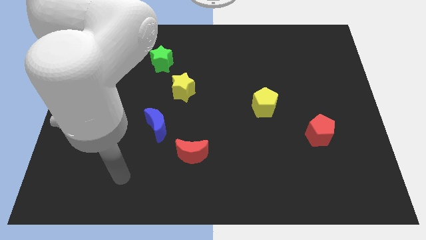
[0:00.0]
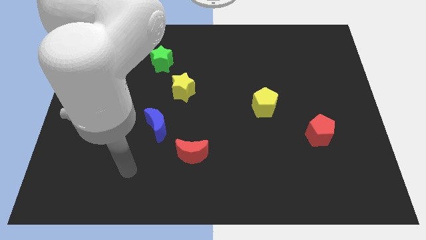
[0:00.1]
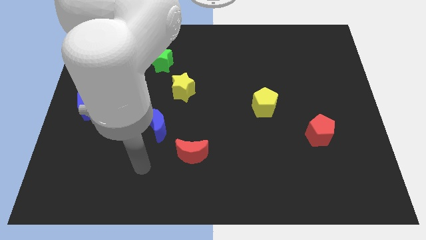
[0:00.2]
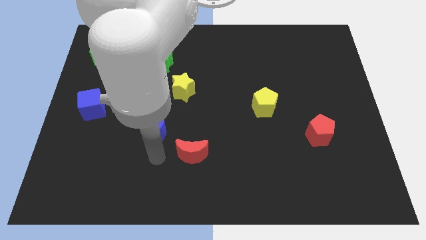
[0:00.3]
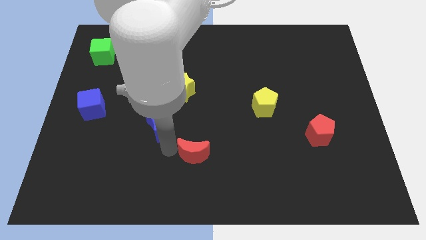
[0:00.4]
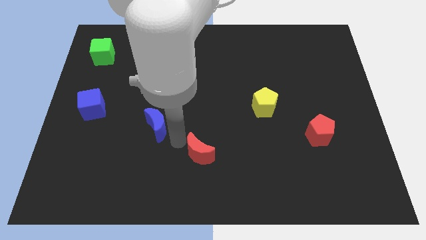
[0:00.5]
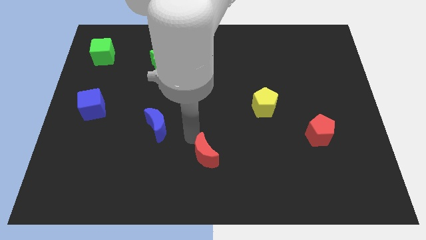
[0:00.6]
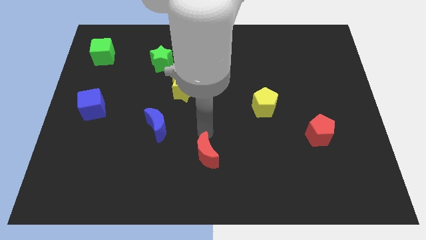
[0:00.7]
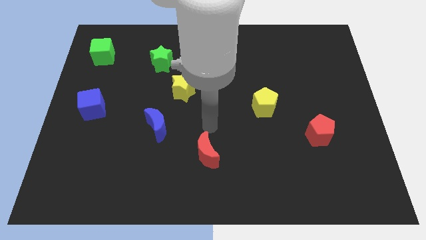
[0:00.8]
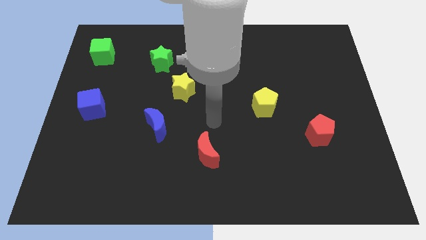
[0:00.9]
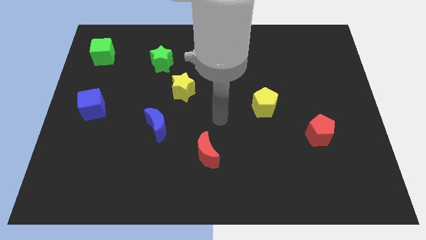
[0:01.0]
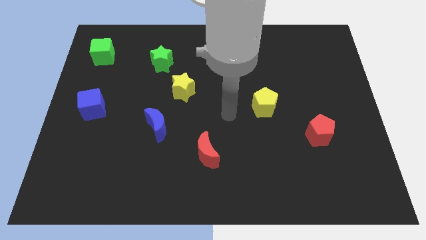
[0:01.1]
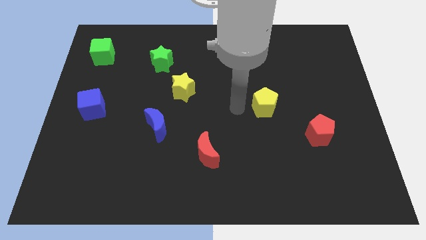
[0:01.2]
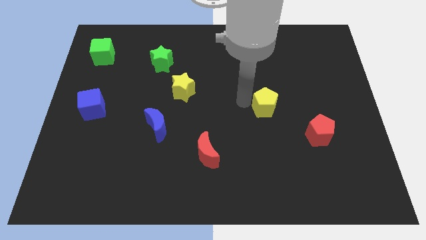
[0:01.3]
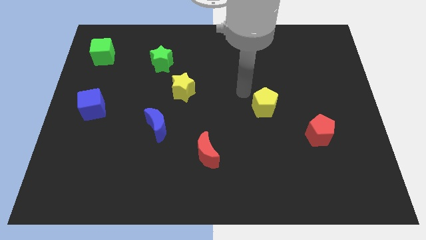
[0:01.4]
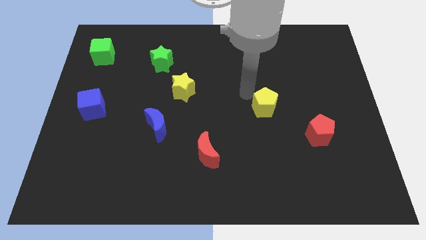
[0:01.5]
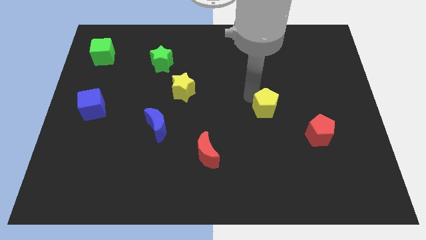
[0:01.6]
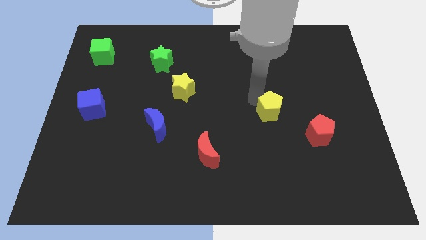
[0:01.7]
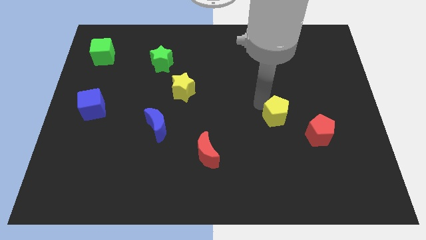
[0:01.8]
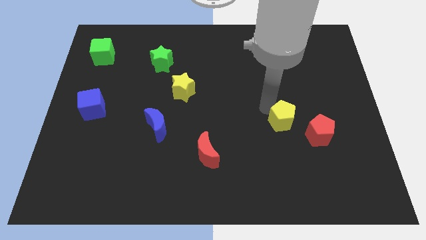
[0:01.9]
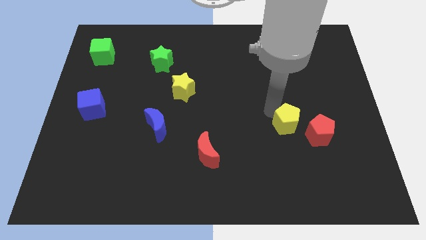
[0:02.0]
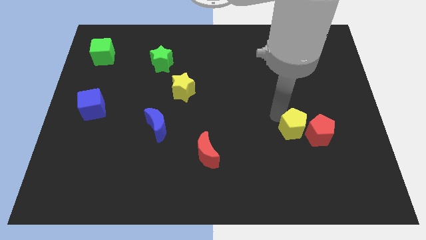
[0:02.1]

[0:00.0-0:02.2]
push the yellow pentagon downwards and to the right slightly

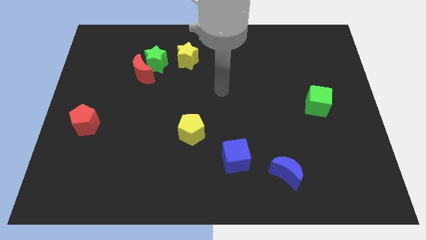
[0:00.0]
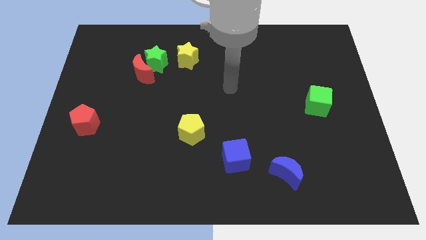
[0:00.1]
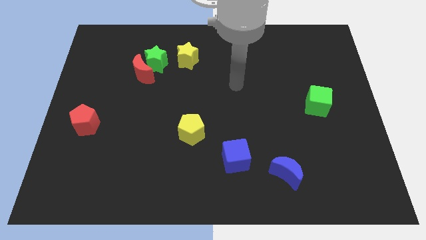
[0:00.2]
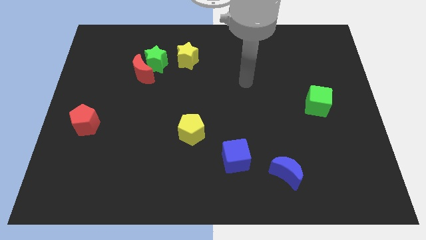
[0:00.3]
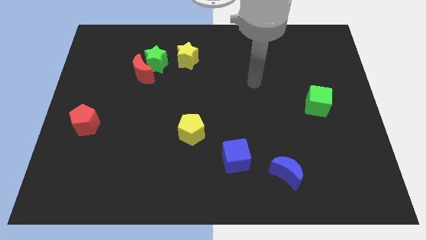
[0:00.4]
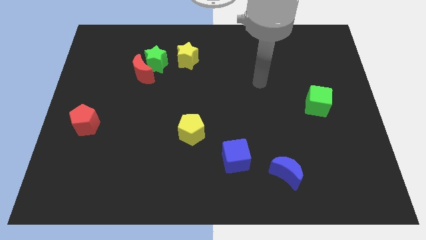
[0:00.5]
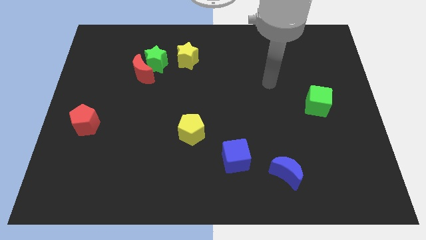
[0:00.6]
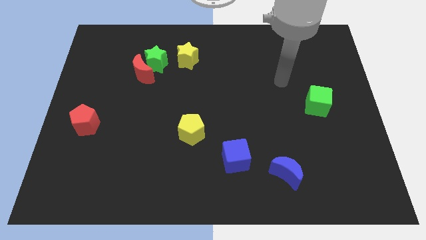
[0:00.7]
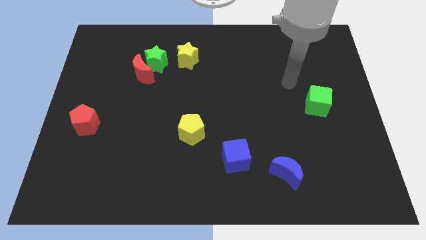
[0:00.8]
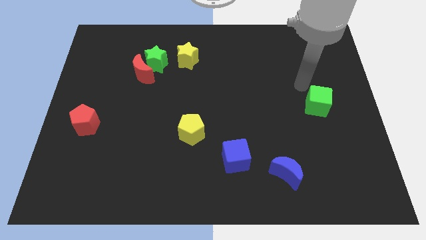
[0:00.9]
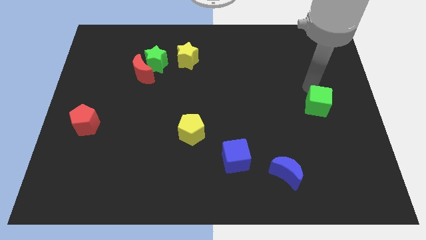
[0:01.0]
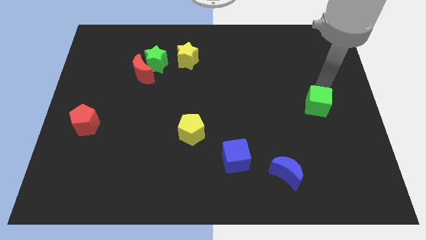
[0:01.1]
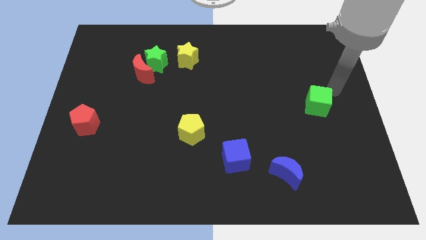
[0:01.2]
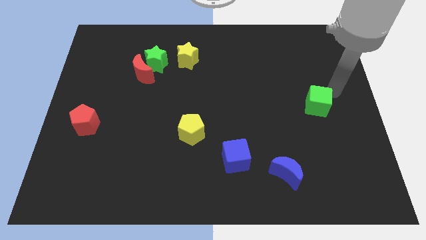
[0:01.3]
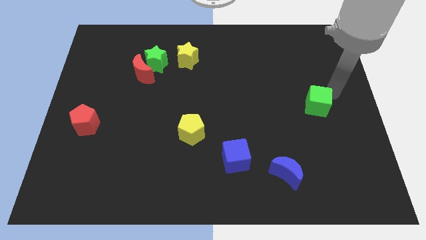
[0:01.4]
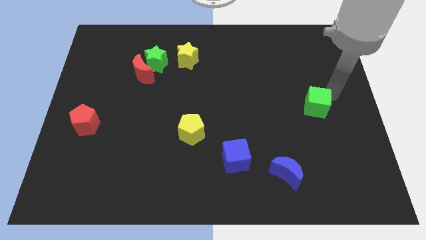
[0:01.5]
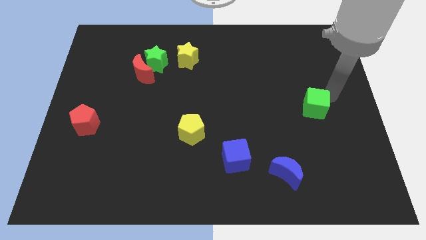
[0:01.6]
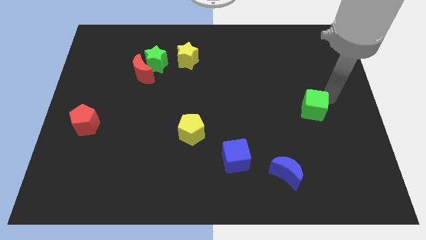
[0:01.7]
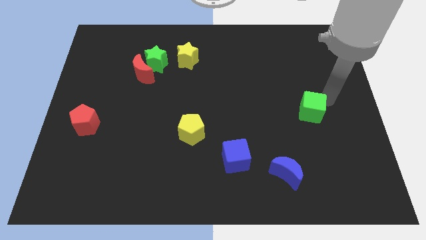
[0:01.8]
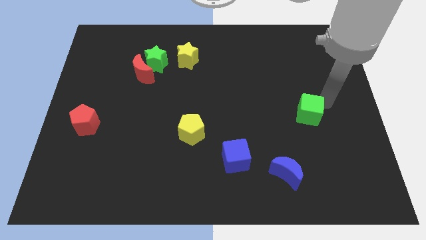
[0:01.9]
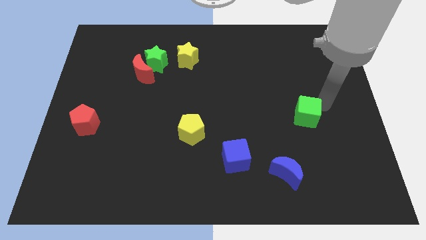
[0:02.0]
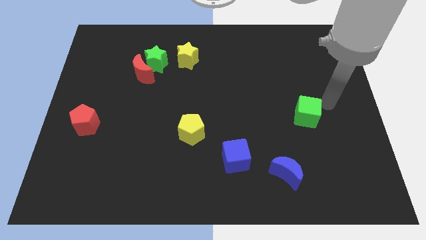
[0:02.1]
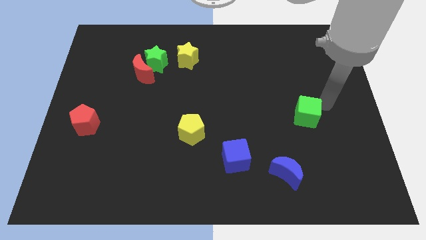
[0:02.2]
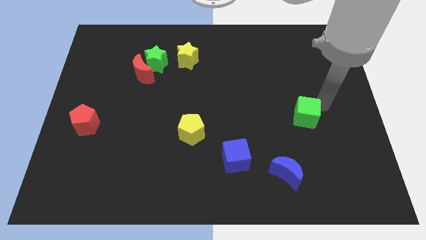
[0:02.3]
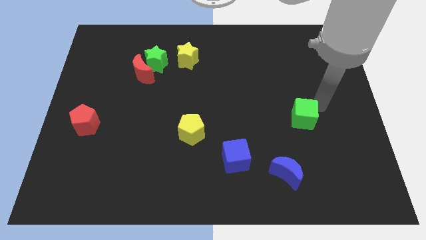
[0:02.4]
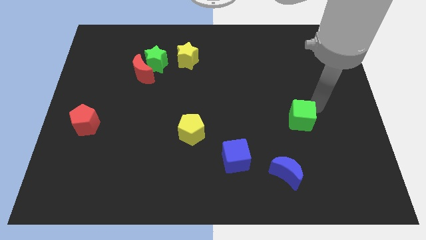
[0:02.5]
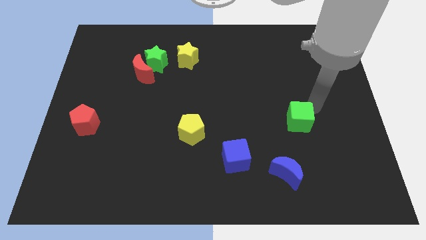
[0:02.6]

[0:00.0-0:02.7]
push the green cube downwards and then left somewhat

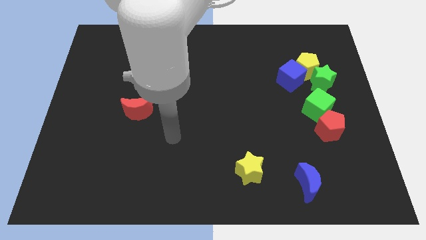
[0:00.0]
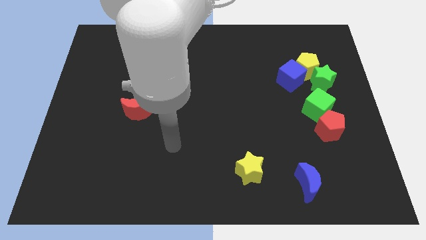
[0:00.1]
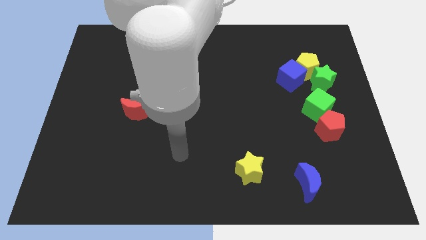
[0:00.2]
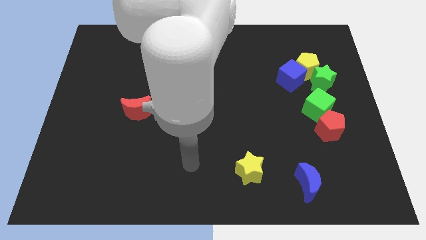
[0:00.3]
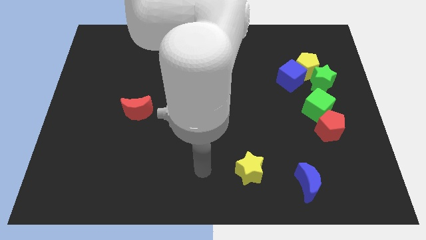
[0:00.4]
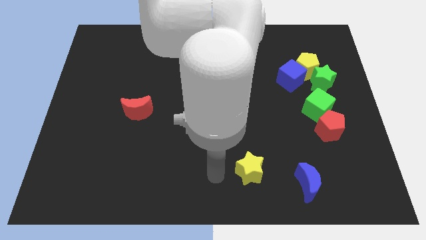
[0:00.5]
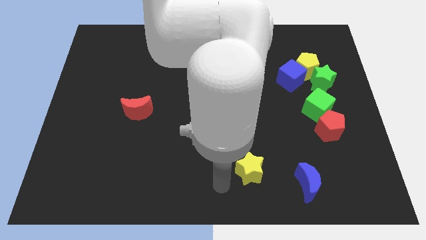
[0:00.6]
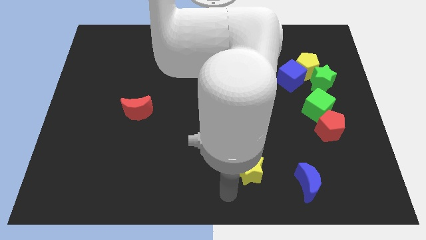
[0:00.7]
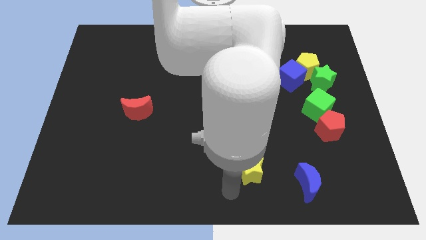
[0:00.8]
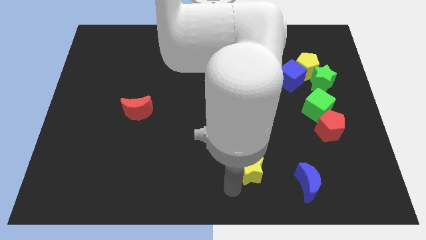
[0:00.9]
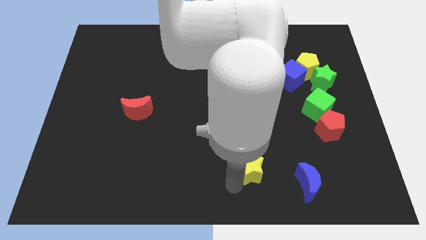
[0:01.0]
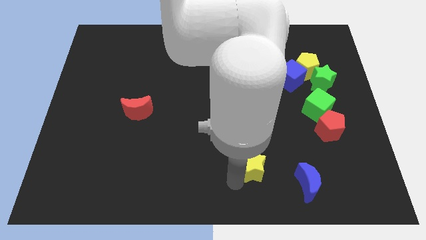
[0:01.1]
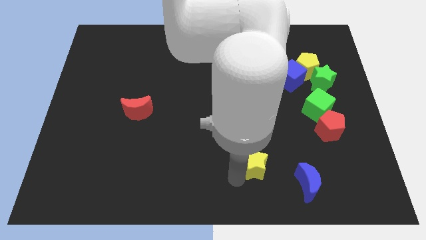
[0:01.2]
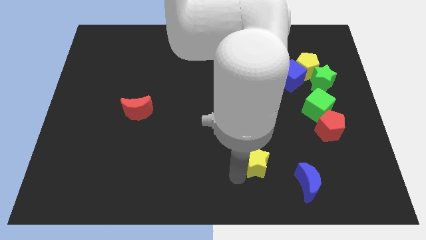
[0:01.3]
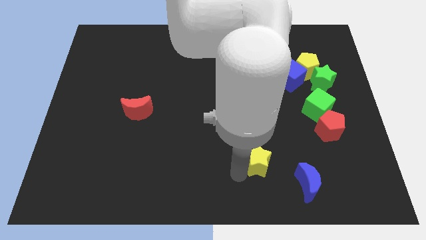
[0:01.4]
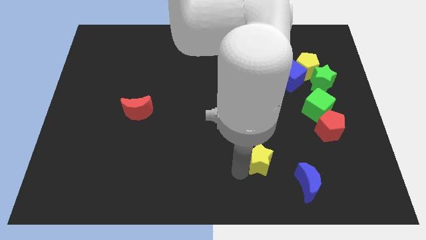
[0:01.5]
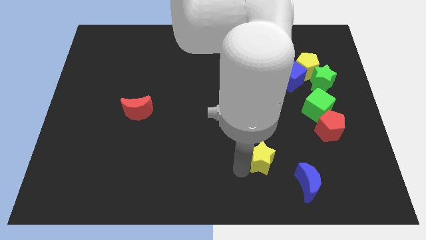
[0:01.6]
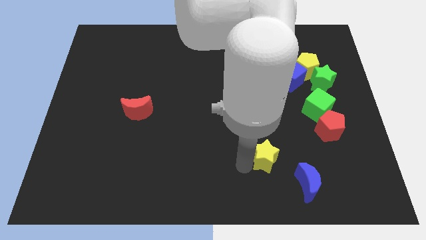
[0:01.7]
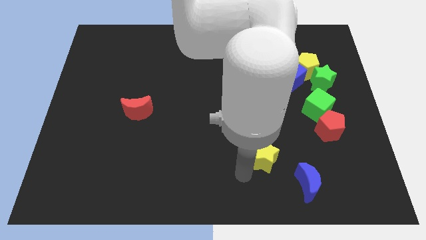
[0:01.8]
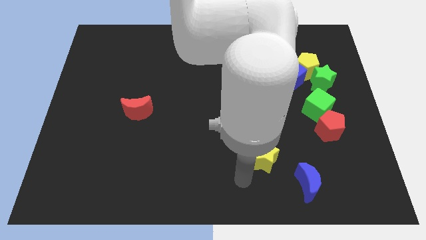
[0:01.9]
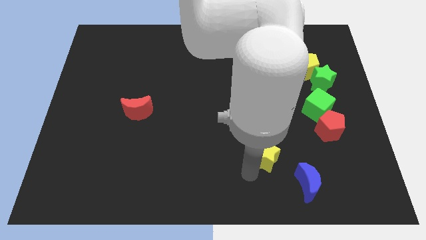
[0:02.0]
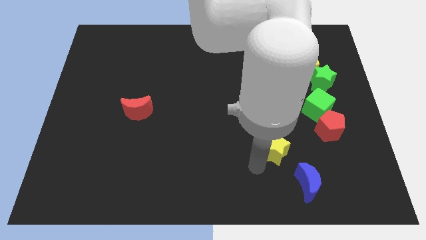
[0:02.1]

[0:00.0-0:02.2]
slightly move the yellow star up and then right

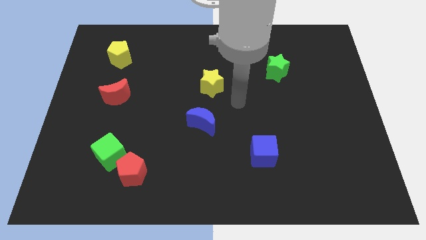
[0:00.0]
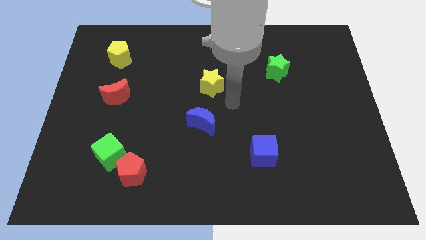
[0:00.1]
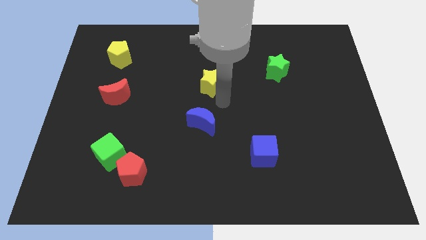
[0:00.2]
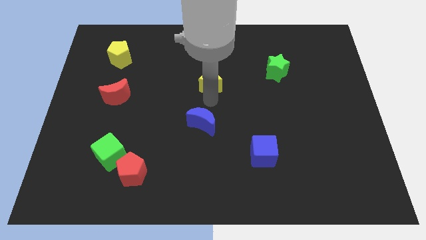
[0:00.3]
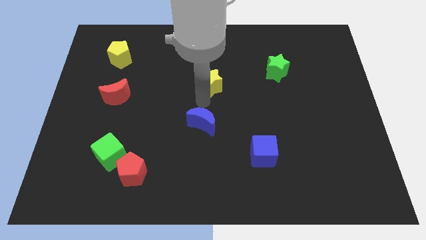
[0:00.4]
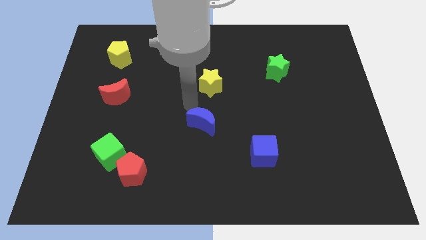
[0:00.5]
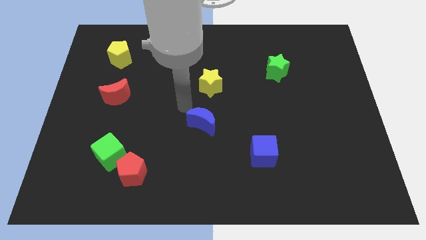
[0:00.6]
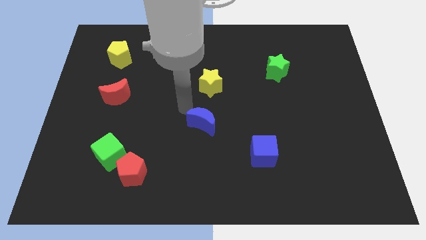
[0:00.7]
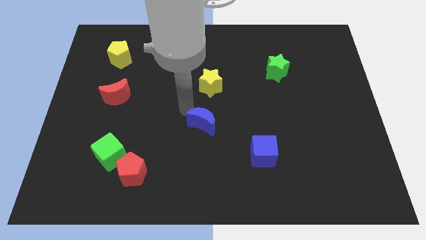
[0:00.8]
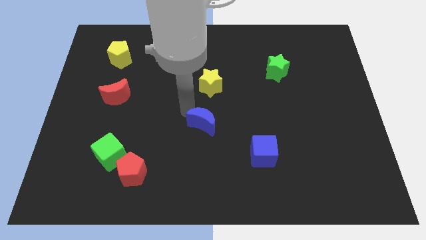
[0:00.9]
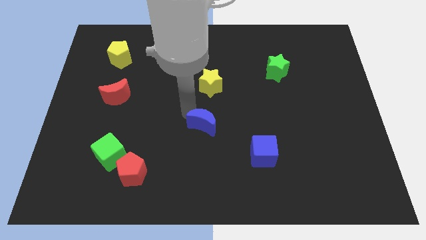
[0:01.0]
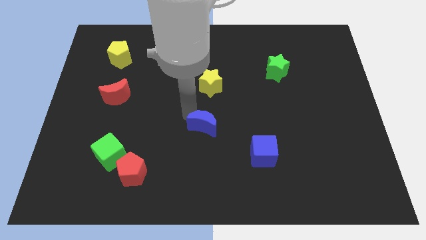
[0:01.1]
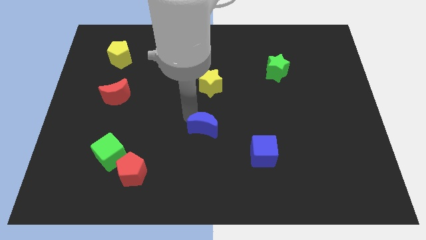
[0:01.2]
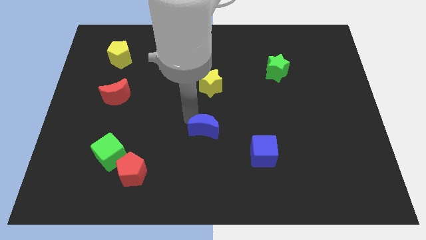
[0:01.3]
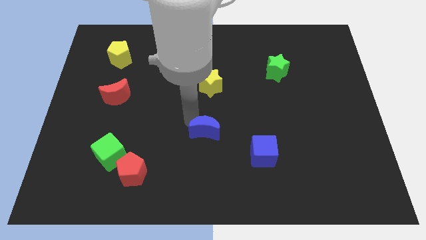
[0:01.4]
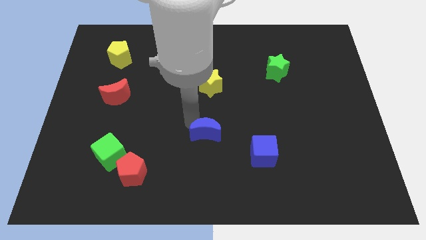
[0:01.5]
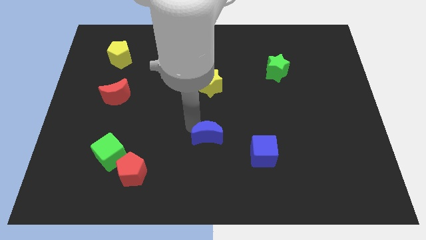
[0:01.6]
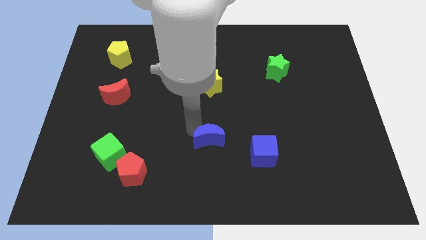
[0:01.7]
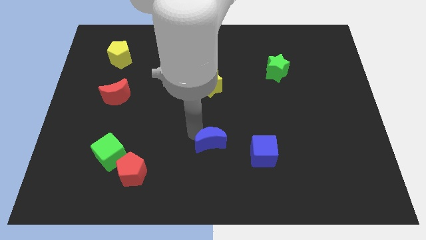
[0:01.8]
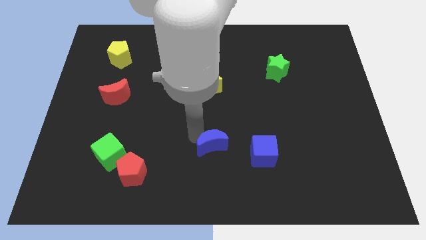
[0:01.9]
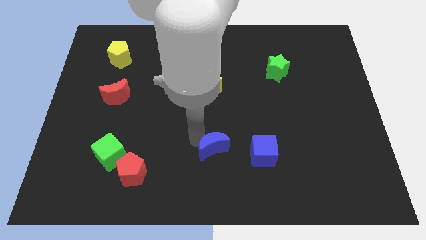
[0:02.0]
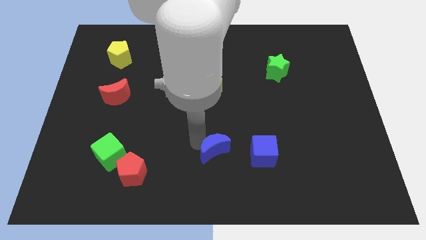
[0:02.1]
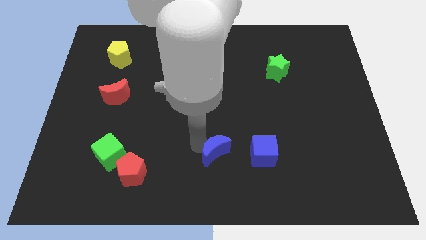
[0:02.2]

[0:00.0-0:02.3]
slightly slide the blue moon down and right
